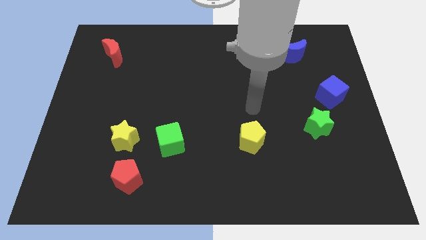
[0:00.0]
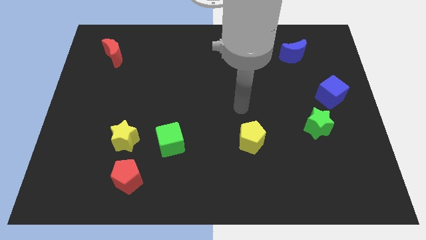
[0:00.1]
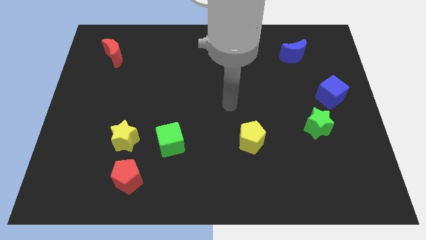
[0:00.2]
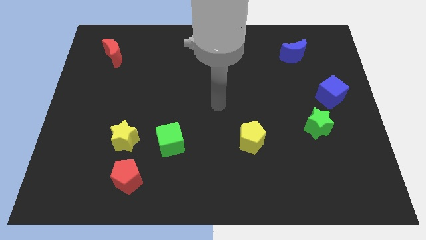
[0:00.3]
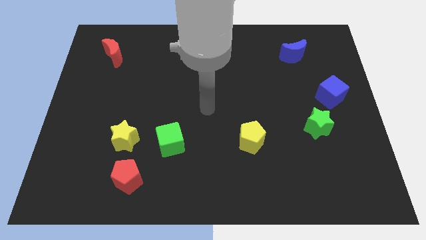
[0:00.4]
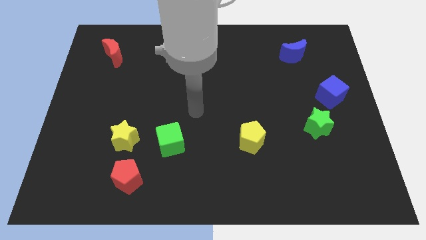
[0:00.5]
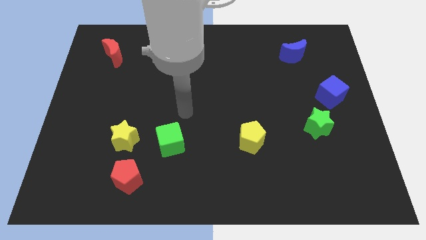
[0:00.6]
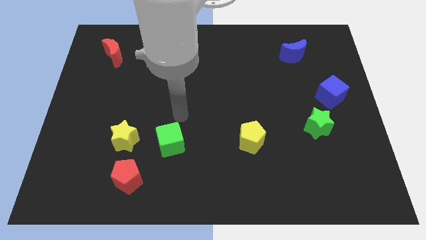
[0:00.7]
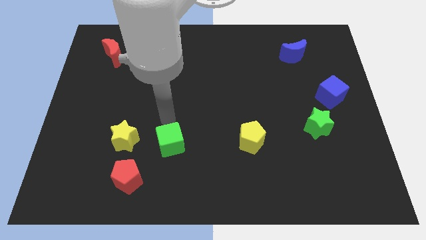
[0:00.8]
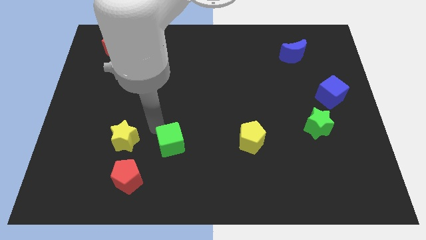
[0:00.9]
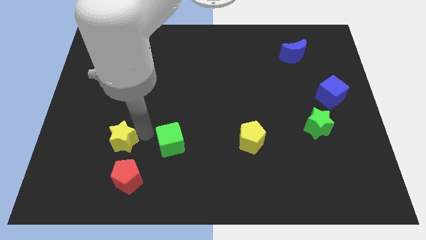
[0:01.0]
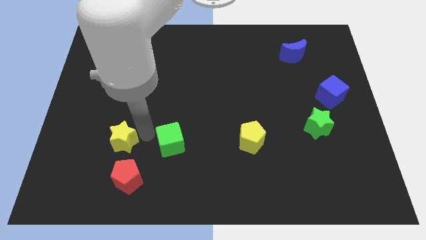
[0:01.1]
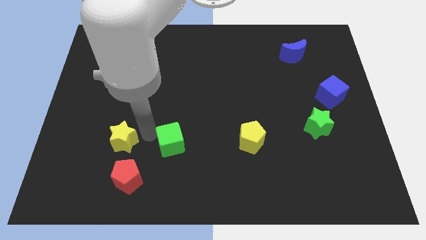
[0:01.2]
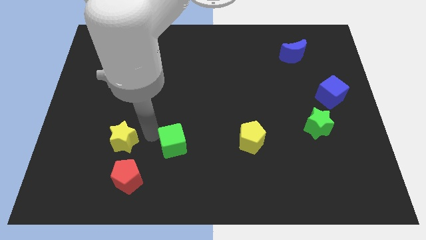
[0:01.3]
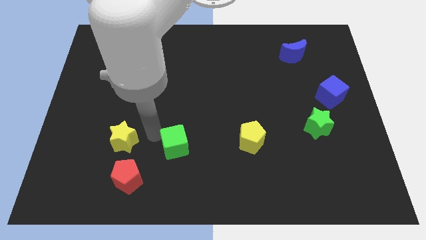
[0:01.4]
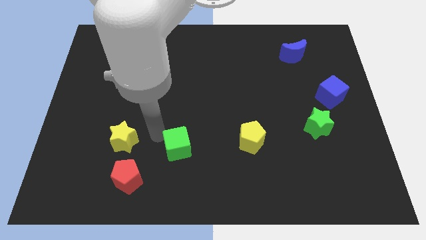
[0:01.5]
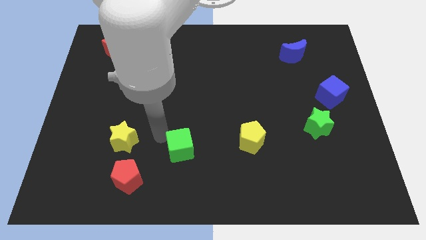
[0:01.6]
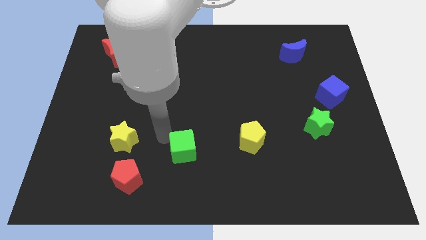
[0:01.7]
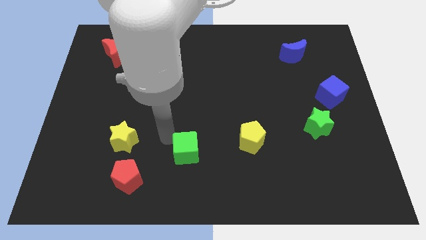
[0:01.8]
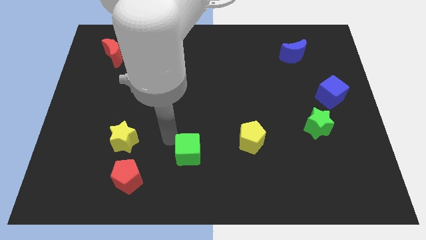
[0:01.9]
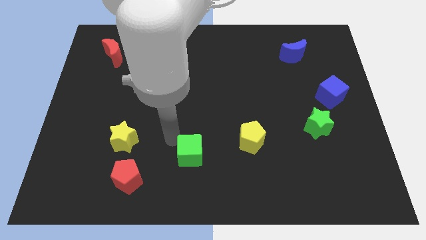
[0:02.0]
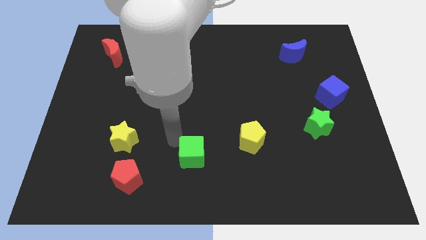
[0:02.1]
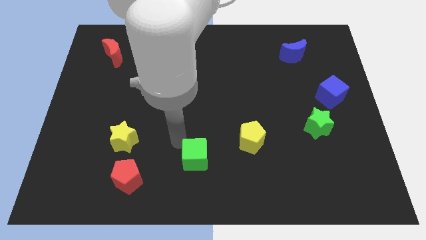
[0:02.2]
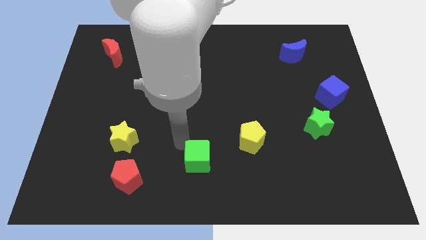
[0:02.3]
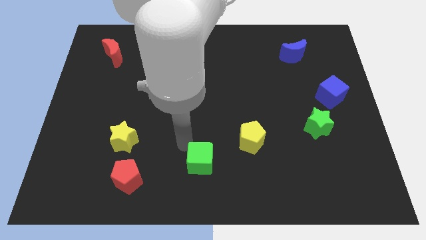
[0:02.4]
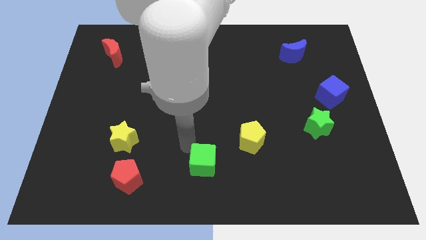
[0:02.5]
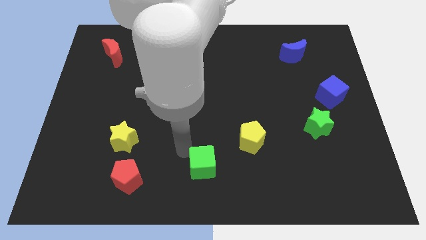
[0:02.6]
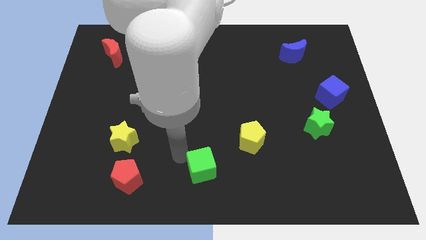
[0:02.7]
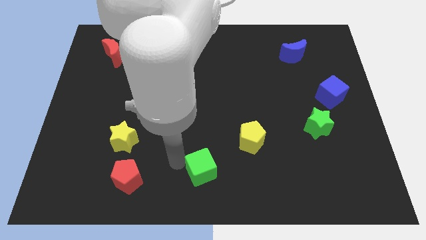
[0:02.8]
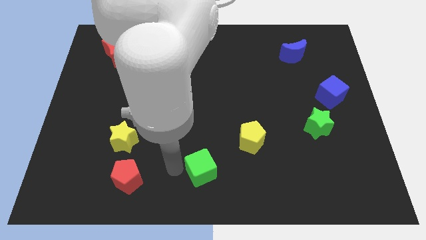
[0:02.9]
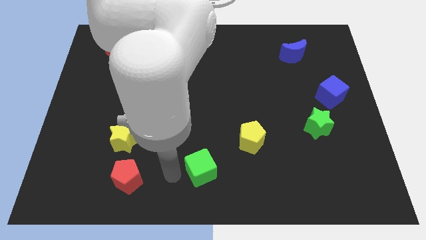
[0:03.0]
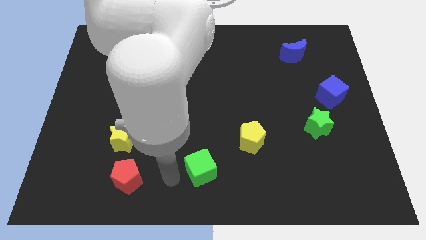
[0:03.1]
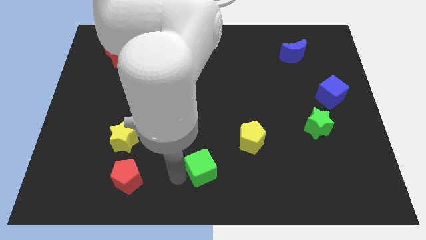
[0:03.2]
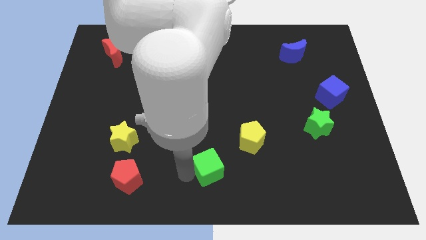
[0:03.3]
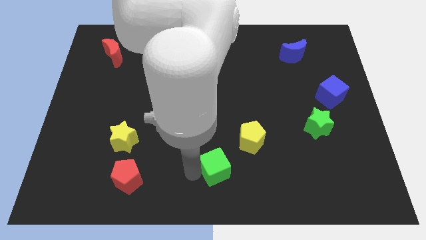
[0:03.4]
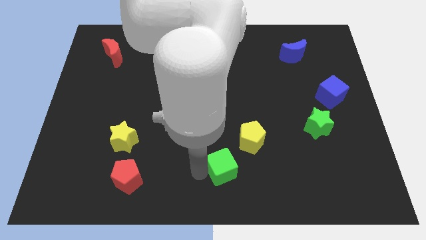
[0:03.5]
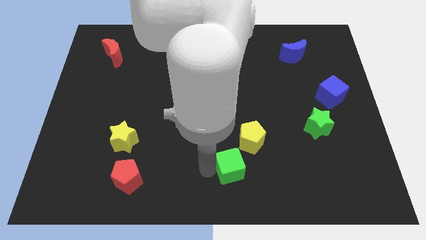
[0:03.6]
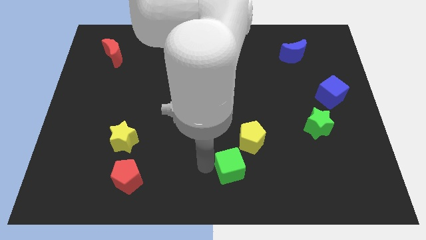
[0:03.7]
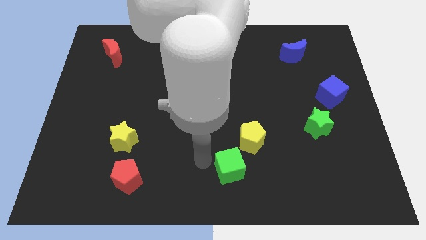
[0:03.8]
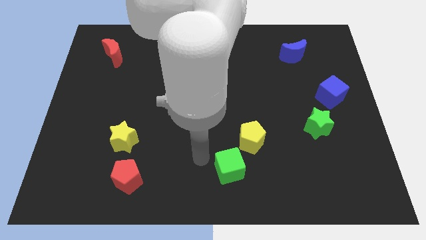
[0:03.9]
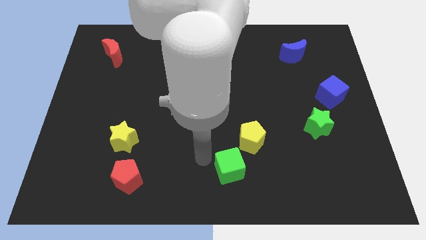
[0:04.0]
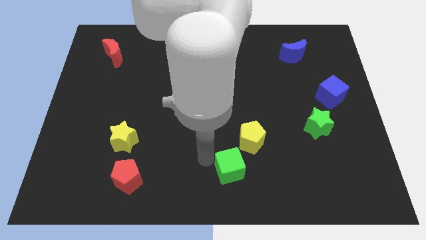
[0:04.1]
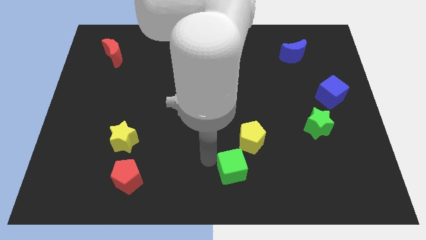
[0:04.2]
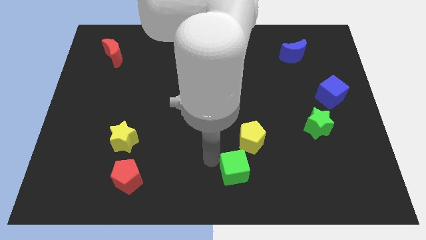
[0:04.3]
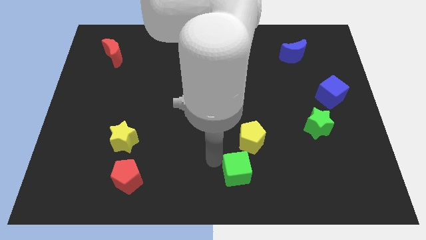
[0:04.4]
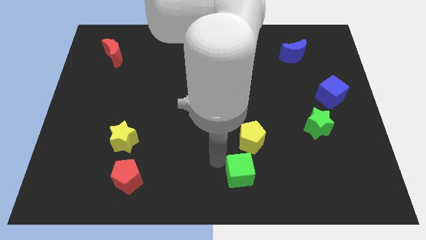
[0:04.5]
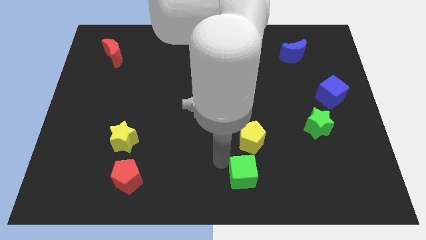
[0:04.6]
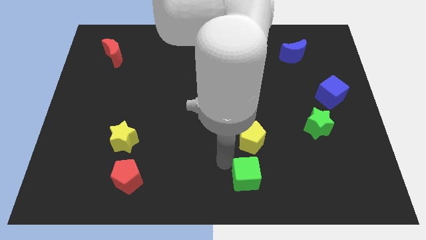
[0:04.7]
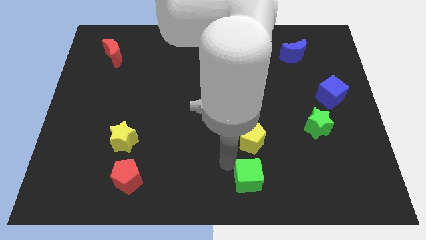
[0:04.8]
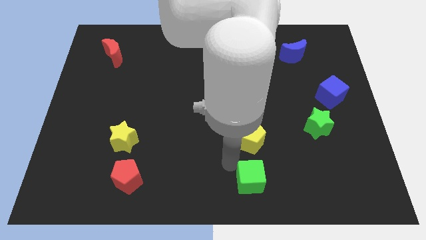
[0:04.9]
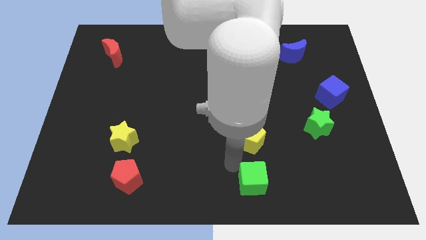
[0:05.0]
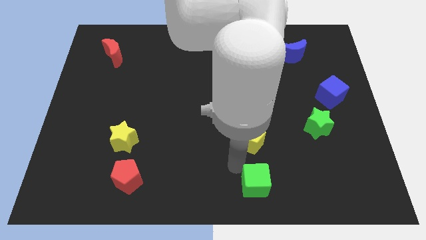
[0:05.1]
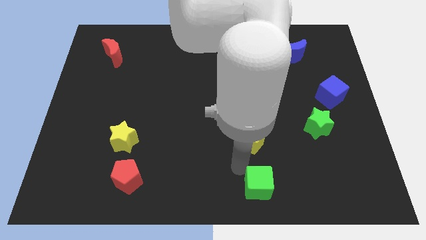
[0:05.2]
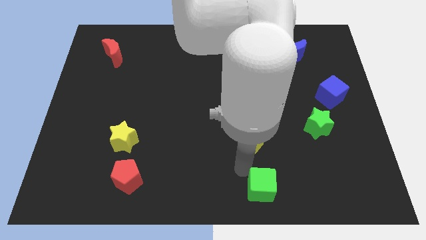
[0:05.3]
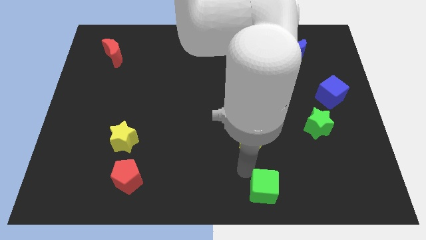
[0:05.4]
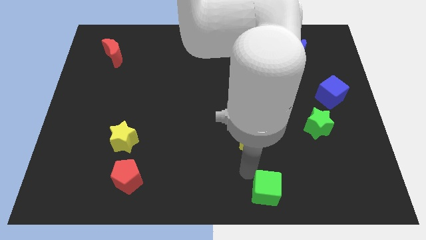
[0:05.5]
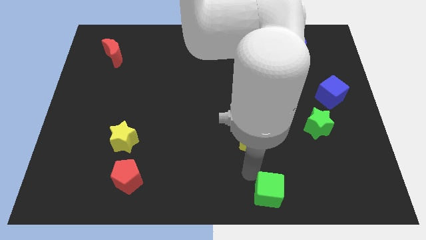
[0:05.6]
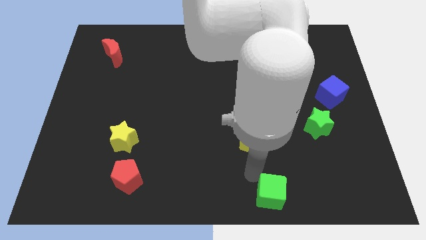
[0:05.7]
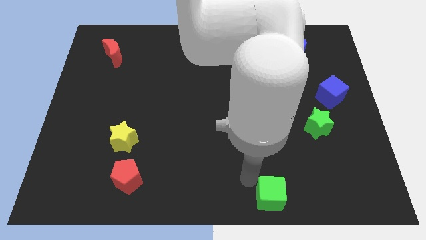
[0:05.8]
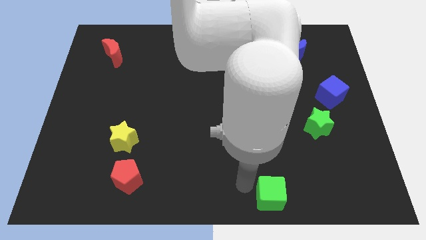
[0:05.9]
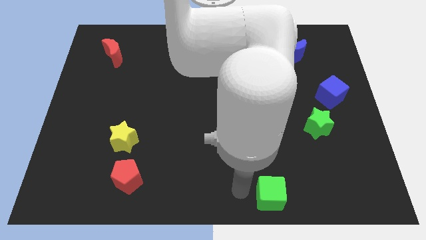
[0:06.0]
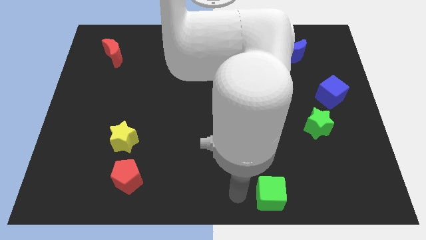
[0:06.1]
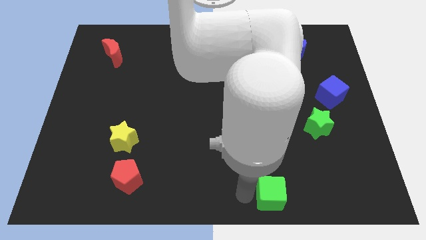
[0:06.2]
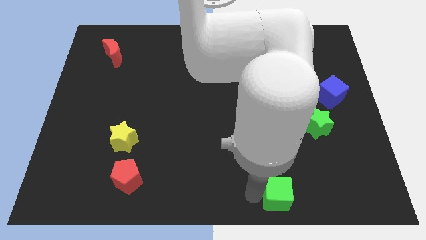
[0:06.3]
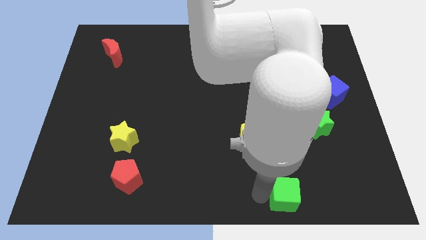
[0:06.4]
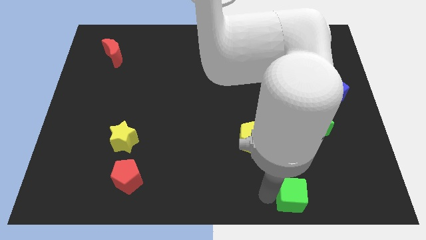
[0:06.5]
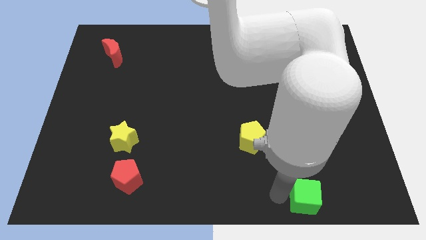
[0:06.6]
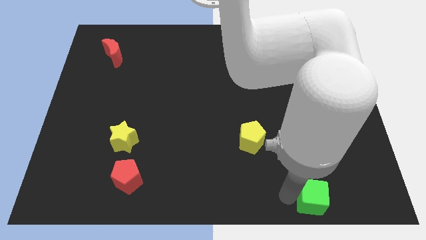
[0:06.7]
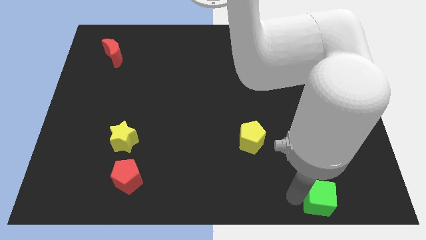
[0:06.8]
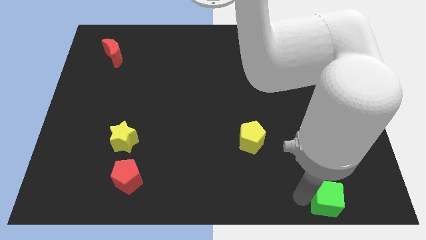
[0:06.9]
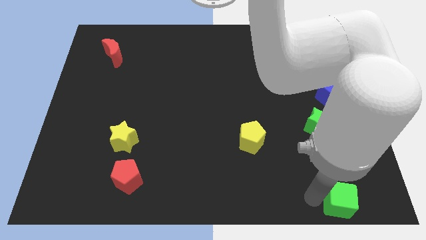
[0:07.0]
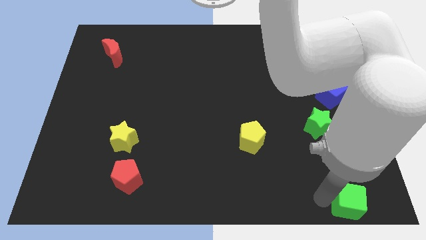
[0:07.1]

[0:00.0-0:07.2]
push the green cube to the bottom right corner

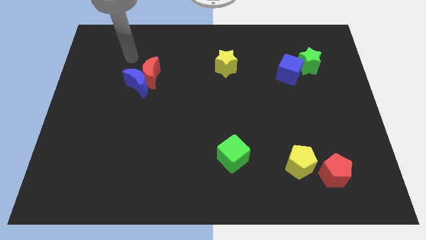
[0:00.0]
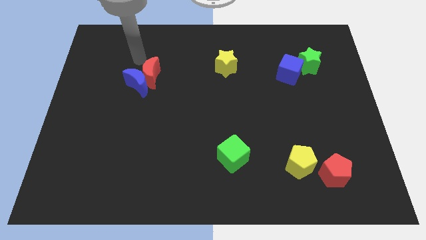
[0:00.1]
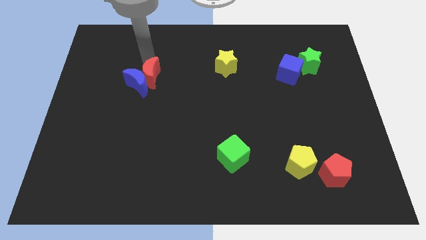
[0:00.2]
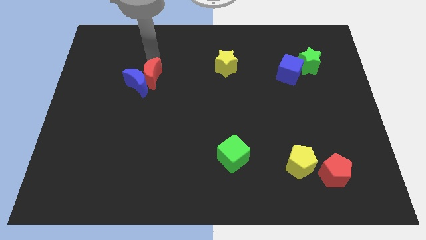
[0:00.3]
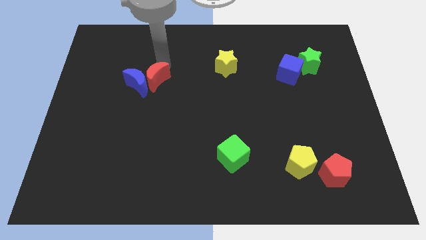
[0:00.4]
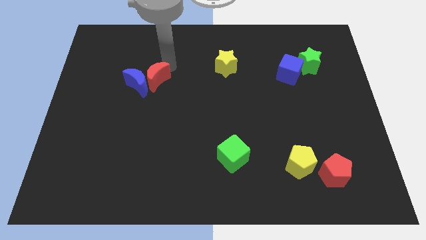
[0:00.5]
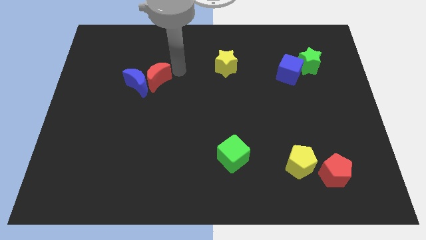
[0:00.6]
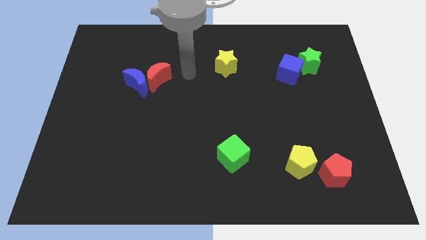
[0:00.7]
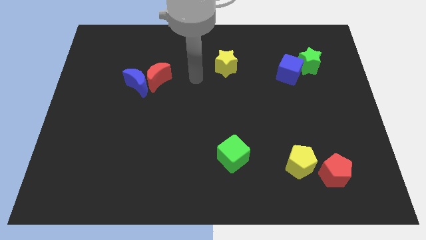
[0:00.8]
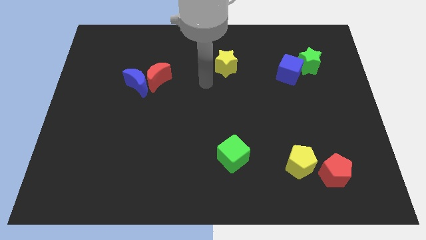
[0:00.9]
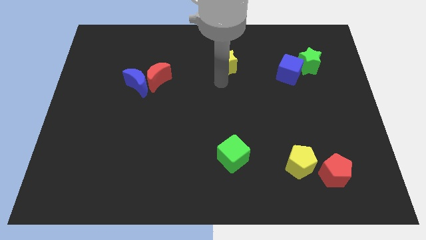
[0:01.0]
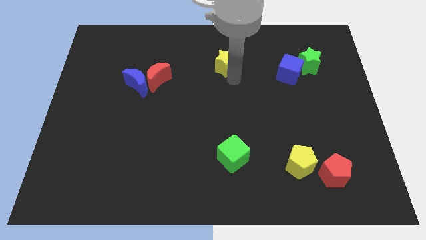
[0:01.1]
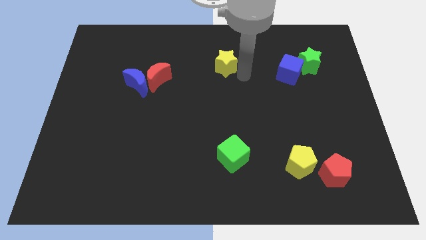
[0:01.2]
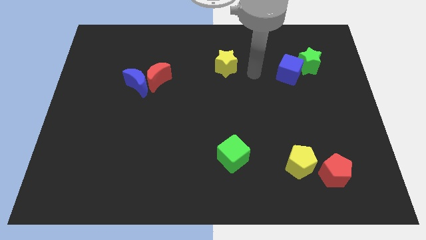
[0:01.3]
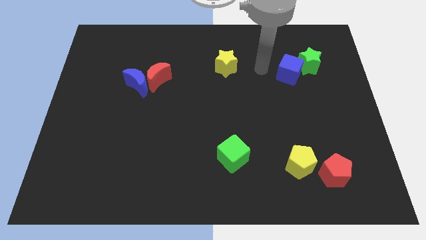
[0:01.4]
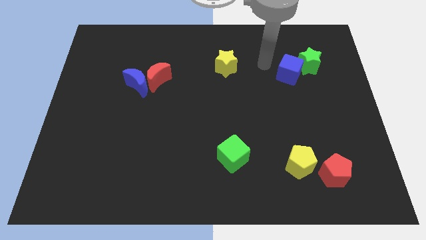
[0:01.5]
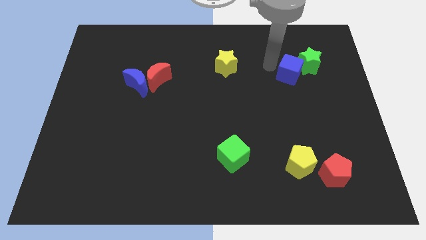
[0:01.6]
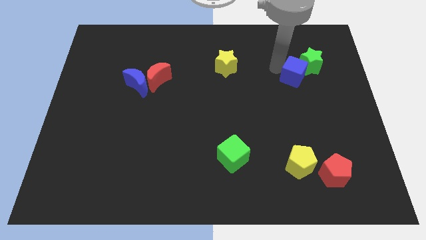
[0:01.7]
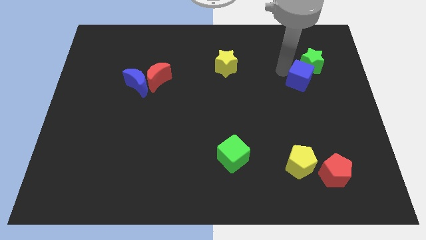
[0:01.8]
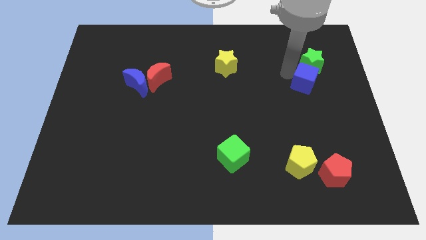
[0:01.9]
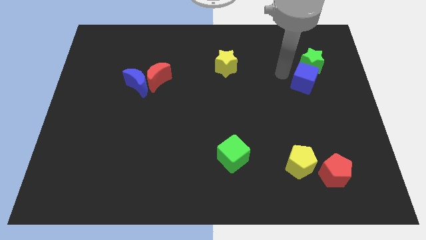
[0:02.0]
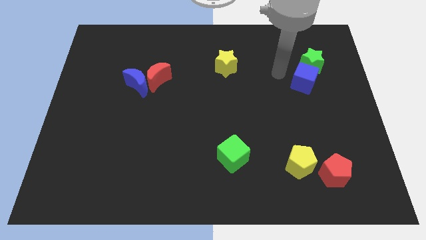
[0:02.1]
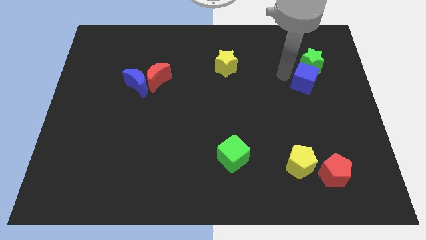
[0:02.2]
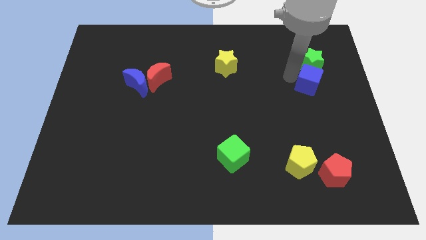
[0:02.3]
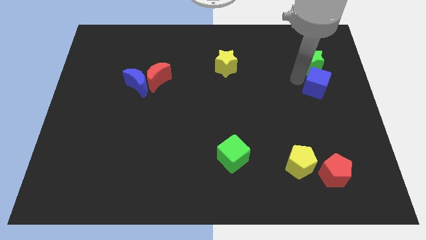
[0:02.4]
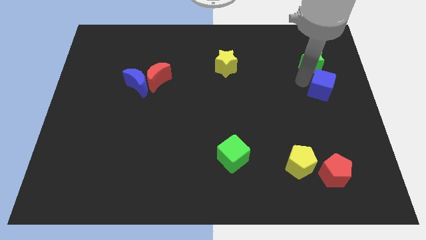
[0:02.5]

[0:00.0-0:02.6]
slide the blue cube to the center right
